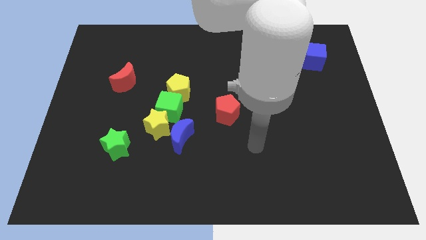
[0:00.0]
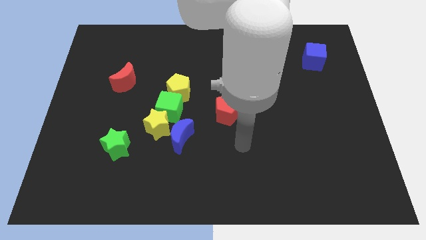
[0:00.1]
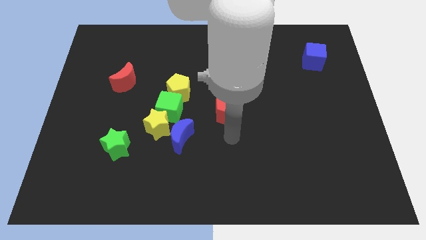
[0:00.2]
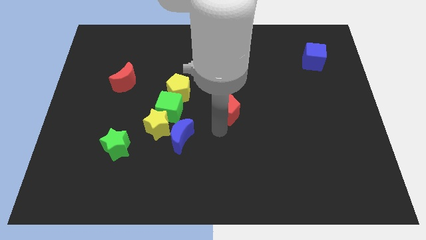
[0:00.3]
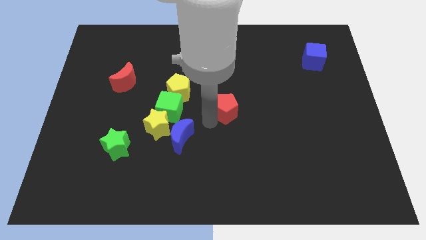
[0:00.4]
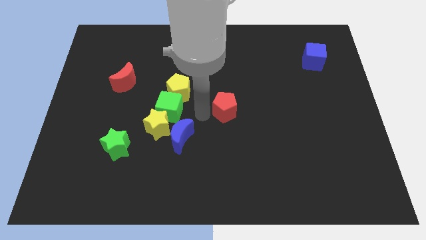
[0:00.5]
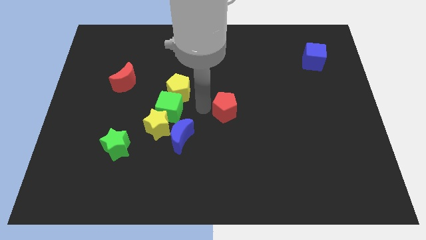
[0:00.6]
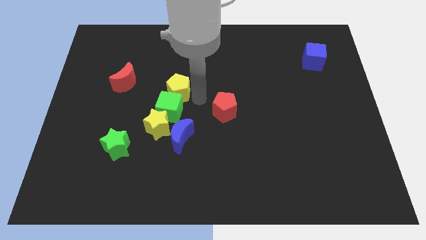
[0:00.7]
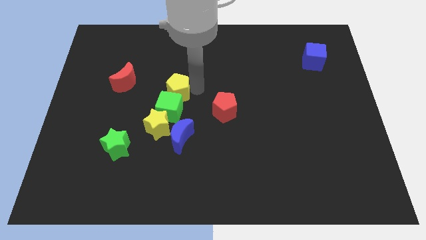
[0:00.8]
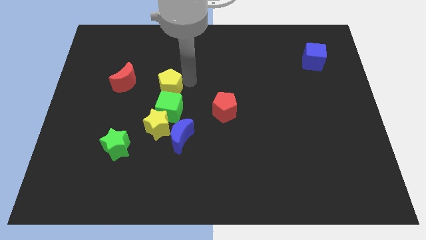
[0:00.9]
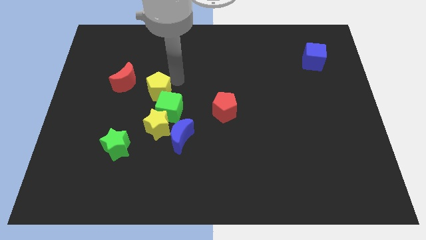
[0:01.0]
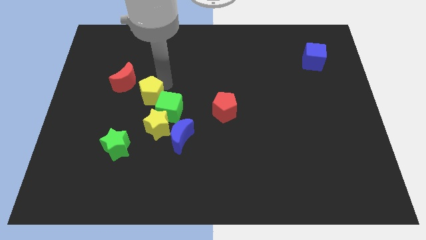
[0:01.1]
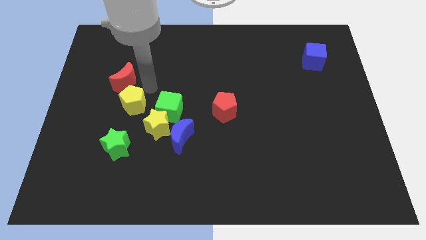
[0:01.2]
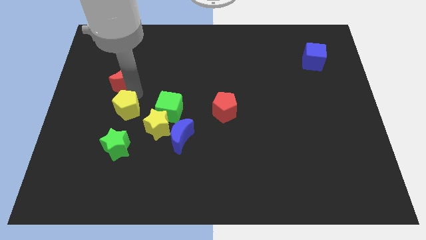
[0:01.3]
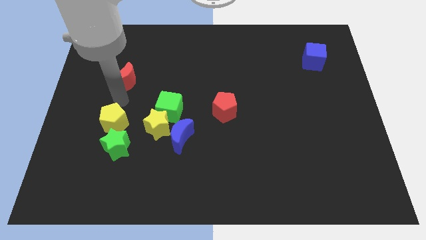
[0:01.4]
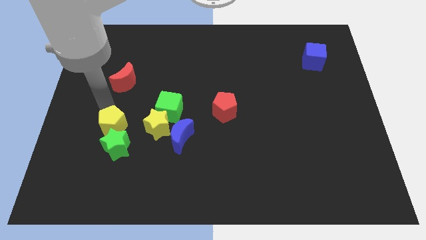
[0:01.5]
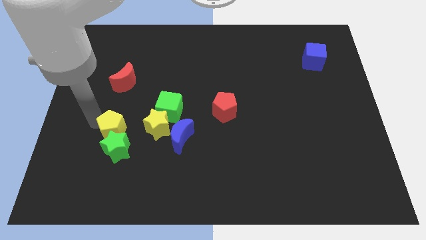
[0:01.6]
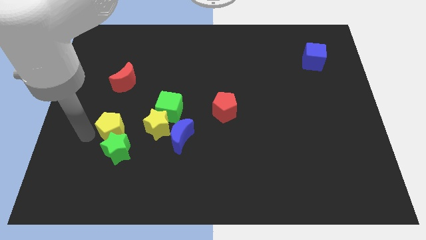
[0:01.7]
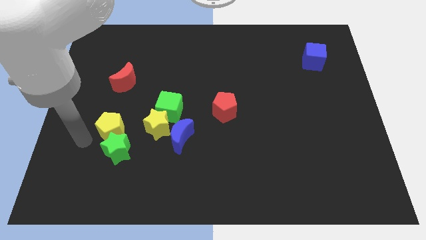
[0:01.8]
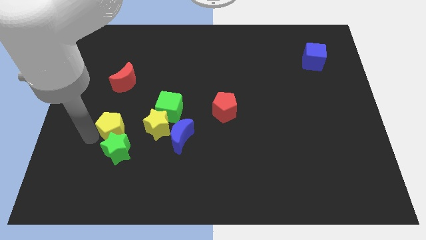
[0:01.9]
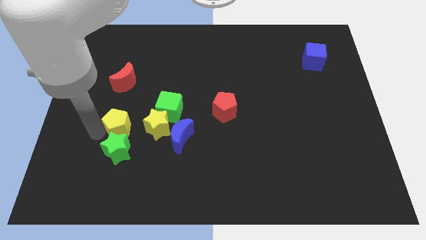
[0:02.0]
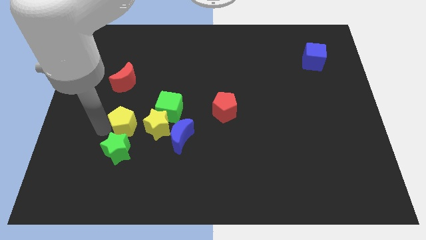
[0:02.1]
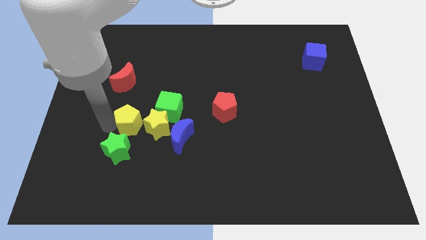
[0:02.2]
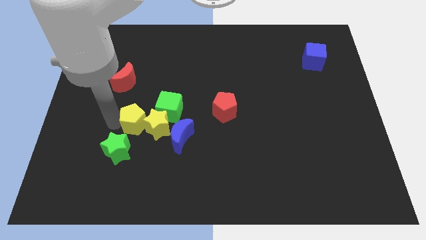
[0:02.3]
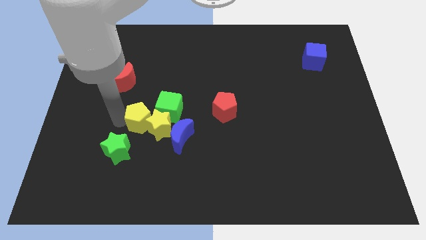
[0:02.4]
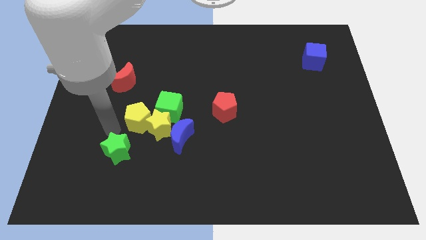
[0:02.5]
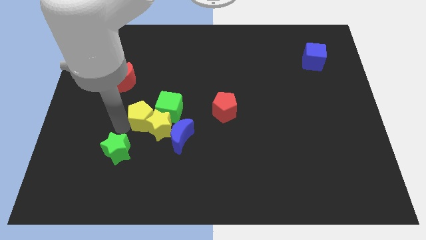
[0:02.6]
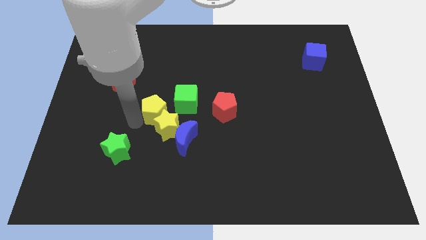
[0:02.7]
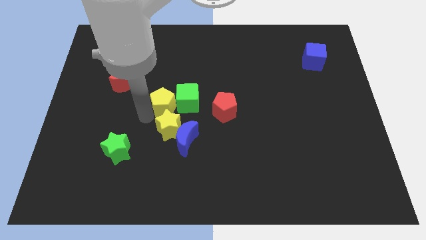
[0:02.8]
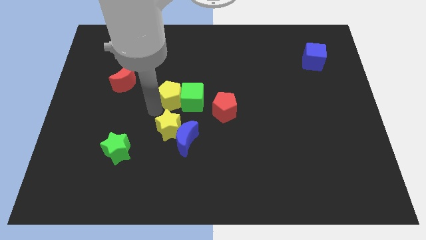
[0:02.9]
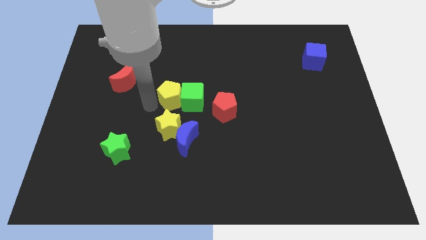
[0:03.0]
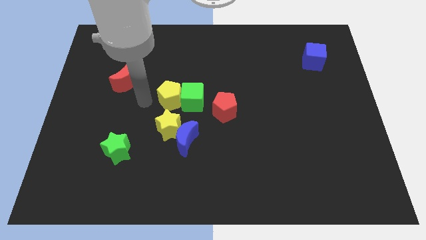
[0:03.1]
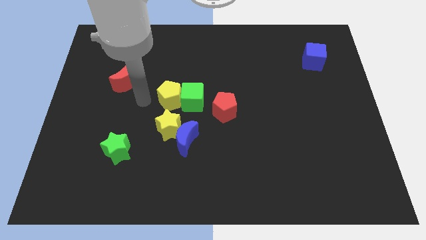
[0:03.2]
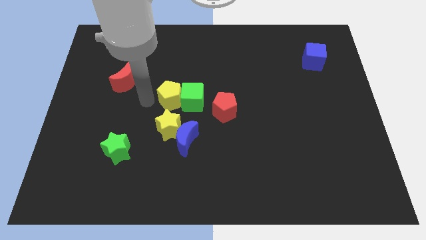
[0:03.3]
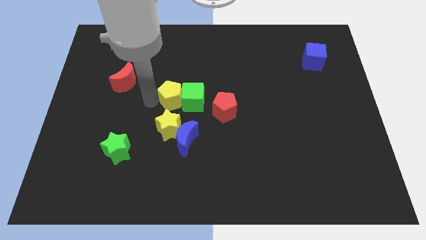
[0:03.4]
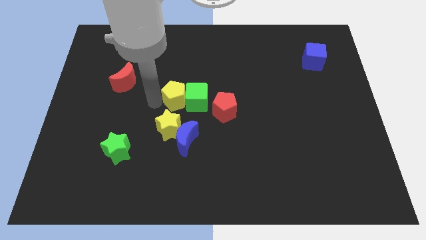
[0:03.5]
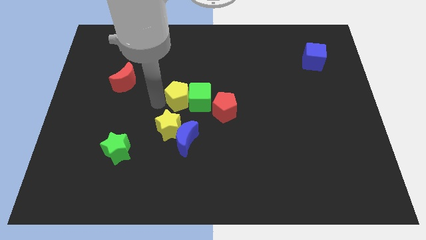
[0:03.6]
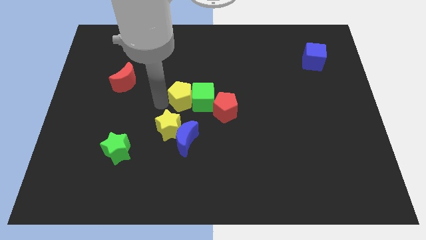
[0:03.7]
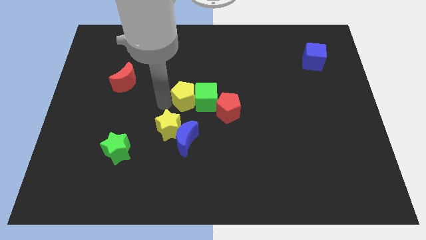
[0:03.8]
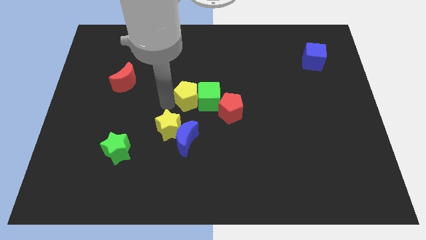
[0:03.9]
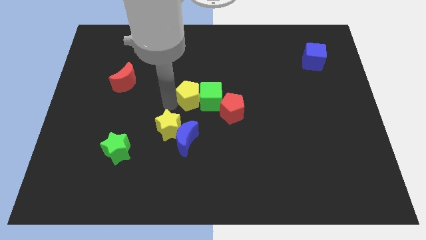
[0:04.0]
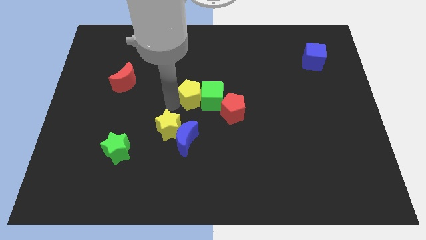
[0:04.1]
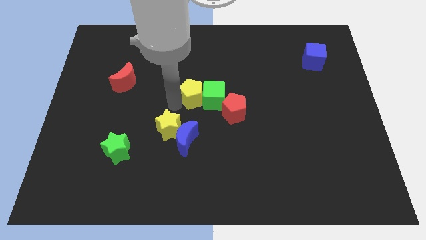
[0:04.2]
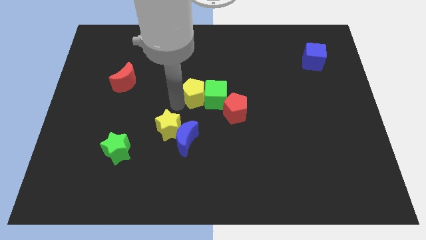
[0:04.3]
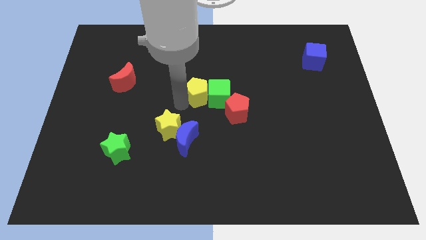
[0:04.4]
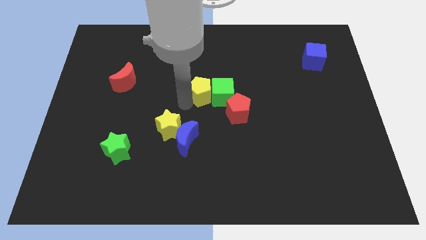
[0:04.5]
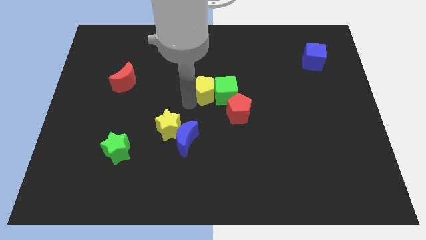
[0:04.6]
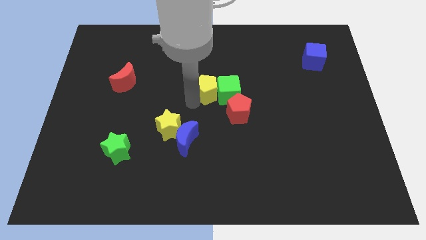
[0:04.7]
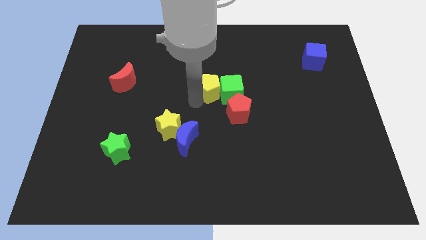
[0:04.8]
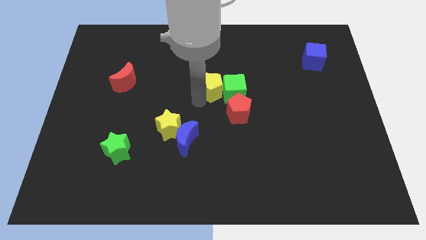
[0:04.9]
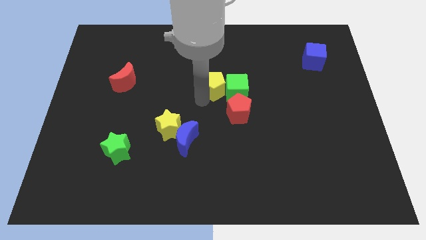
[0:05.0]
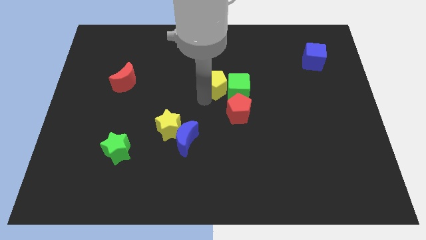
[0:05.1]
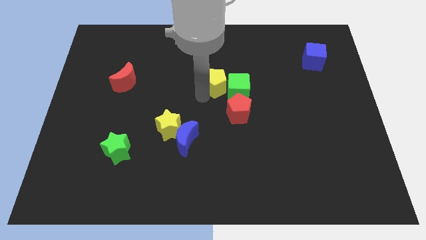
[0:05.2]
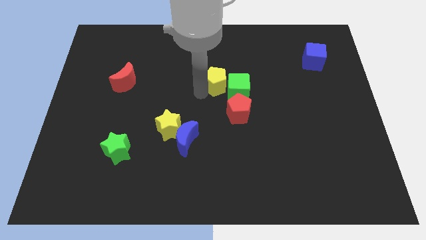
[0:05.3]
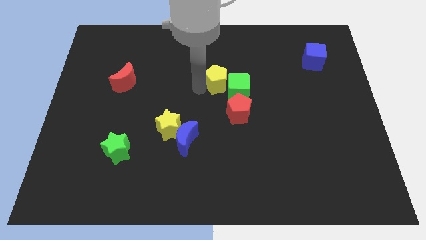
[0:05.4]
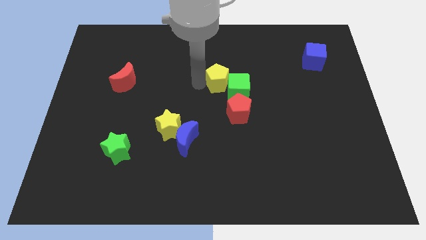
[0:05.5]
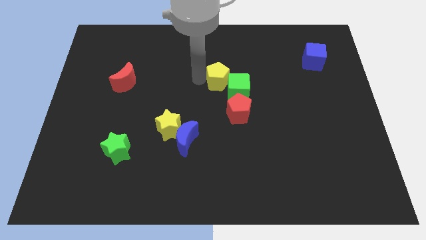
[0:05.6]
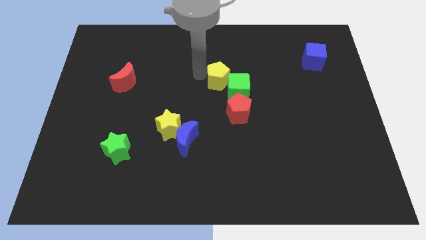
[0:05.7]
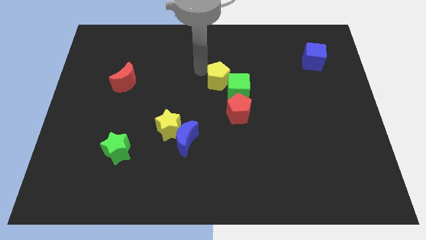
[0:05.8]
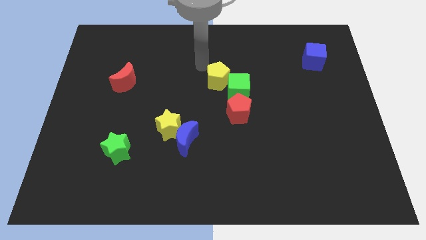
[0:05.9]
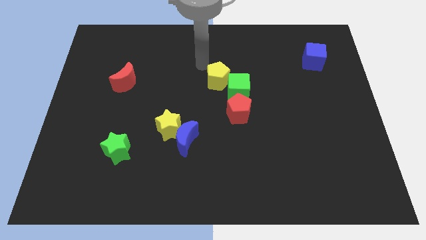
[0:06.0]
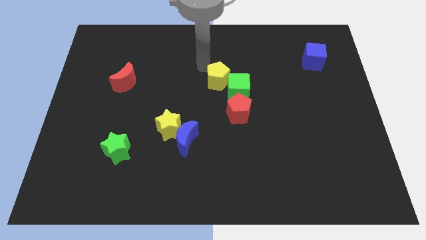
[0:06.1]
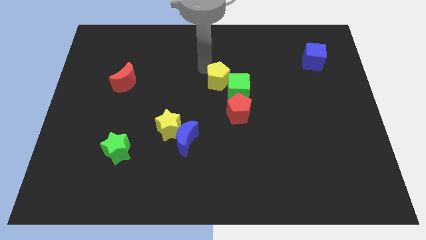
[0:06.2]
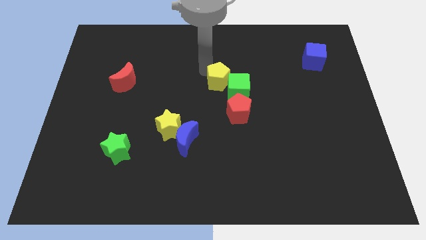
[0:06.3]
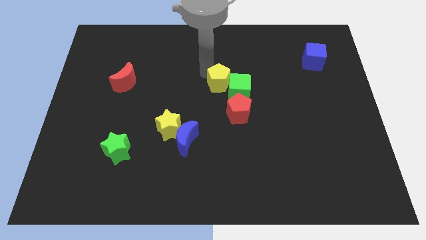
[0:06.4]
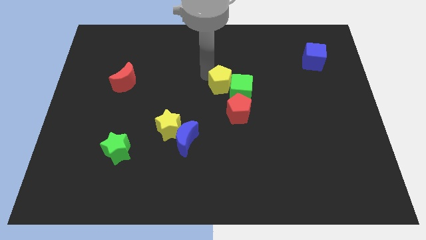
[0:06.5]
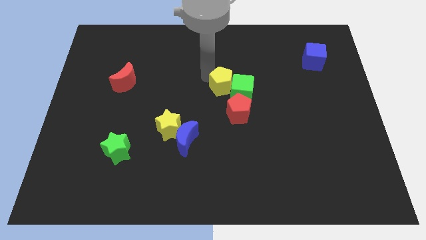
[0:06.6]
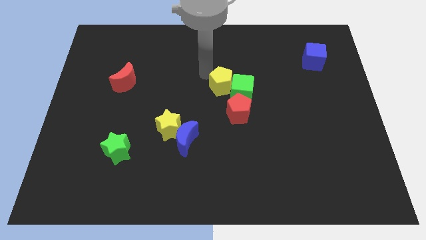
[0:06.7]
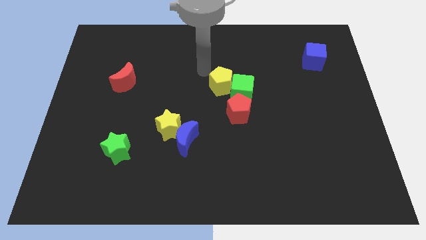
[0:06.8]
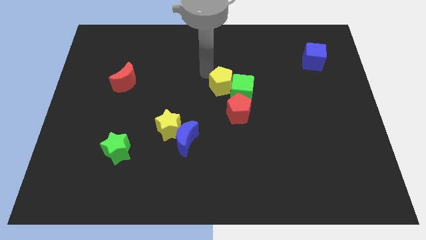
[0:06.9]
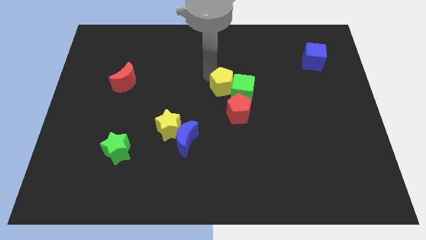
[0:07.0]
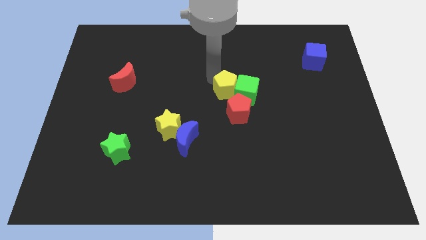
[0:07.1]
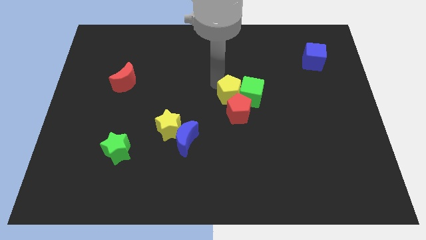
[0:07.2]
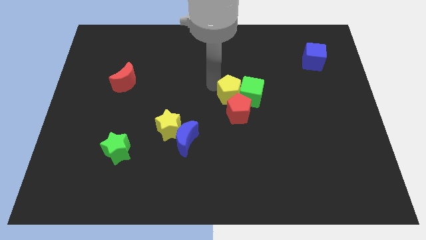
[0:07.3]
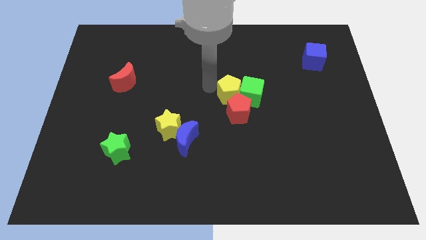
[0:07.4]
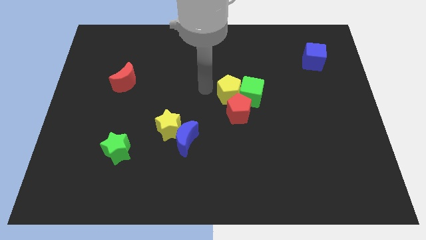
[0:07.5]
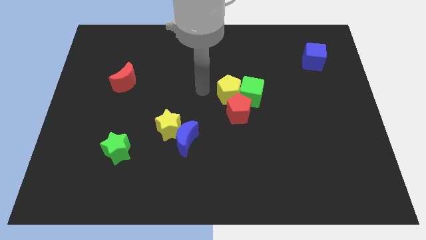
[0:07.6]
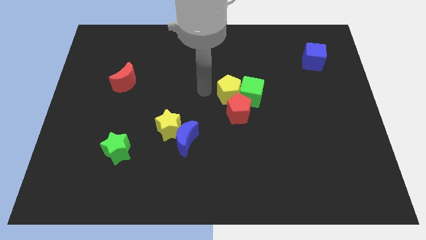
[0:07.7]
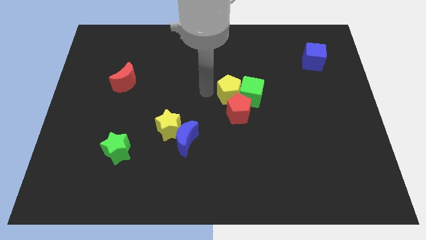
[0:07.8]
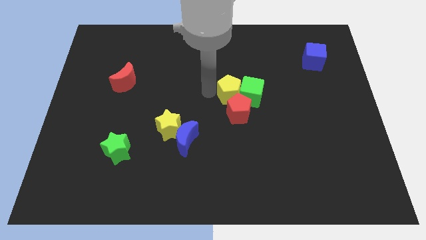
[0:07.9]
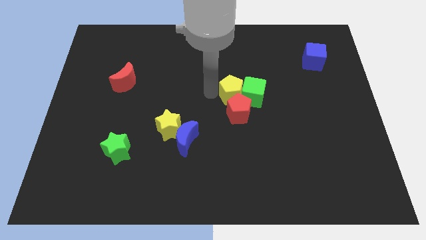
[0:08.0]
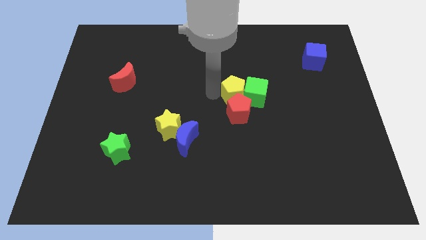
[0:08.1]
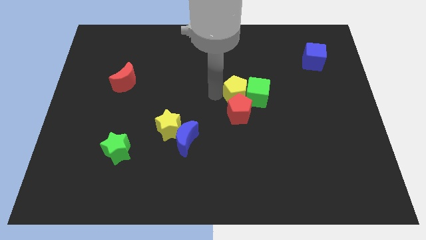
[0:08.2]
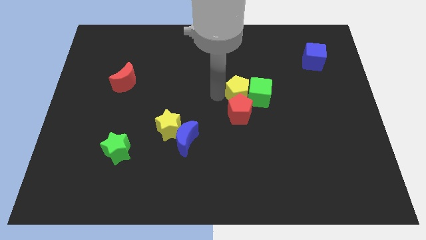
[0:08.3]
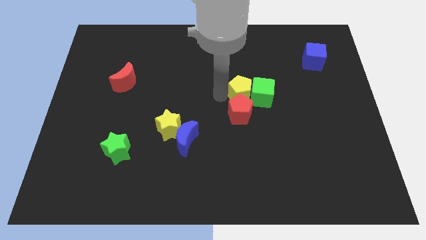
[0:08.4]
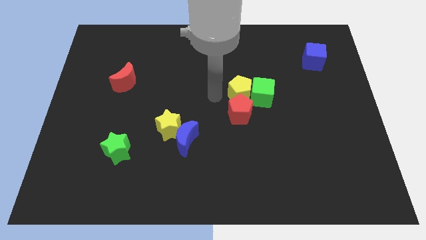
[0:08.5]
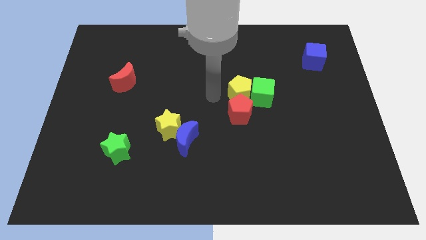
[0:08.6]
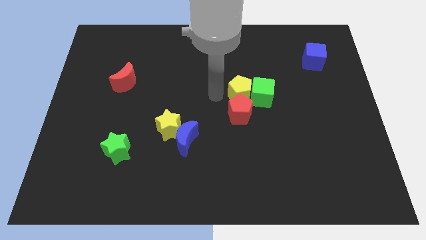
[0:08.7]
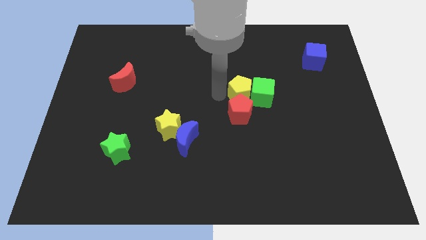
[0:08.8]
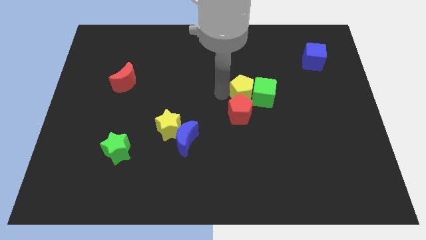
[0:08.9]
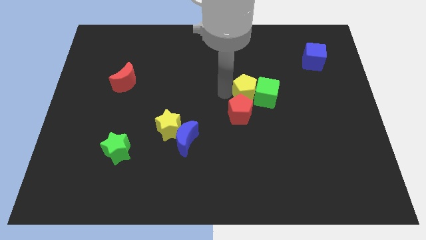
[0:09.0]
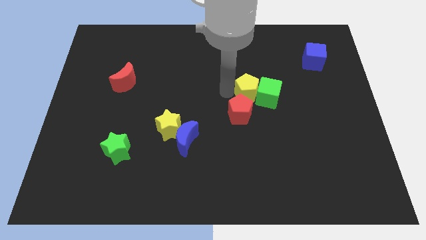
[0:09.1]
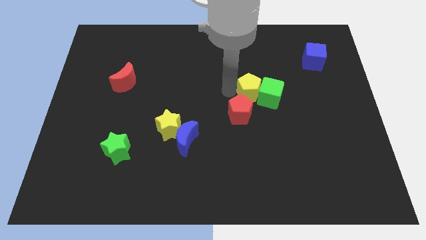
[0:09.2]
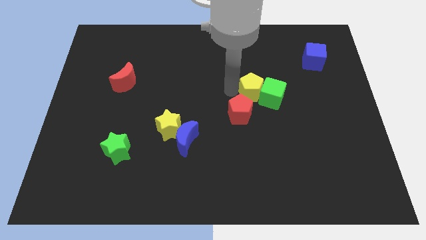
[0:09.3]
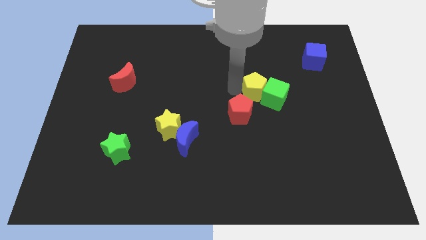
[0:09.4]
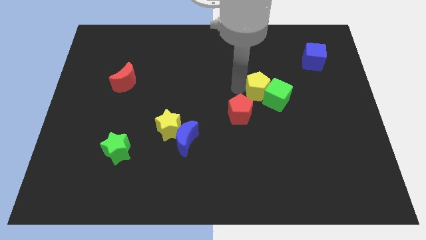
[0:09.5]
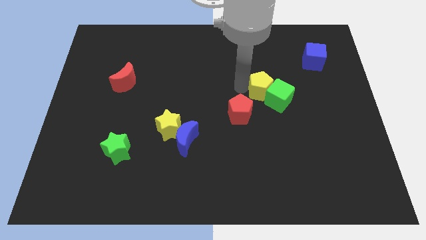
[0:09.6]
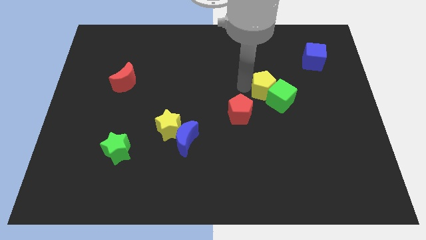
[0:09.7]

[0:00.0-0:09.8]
push the yellow pentagon to the right
